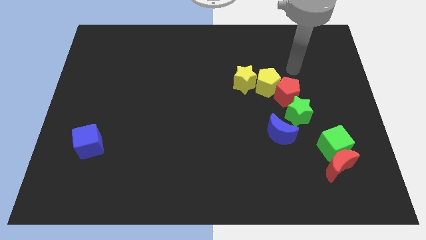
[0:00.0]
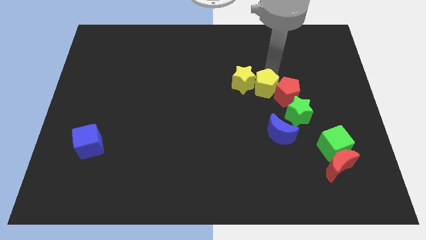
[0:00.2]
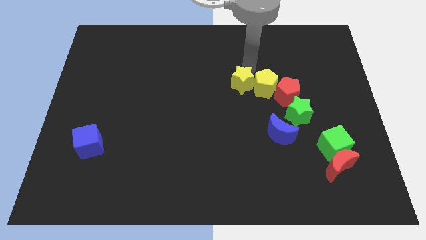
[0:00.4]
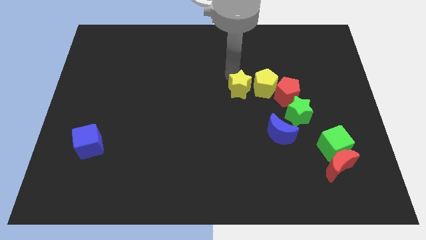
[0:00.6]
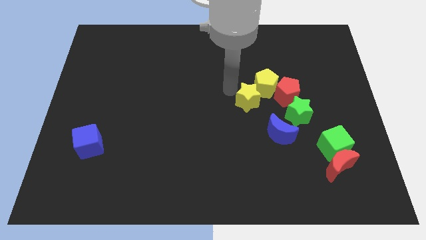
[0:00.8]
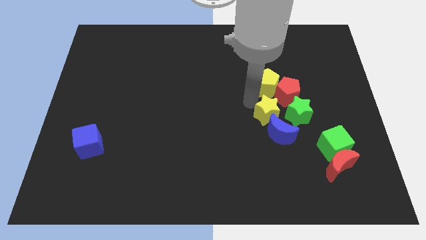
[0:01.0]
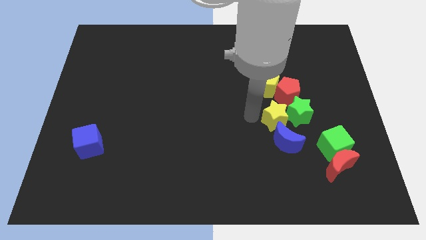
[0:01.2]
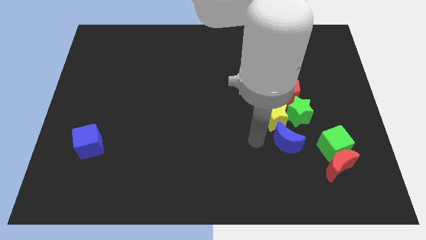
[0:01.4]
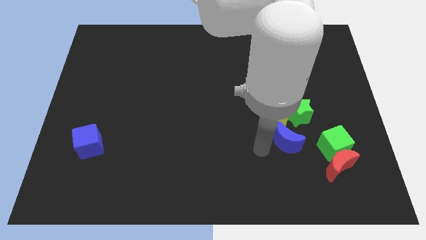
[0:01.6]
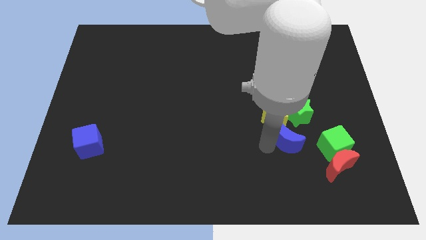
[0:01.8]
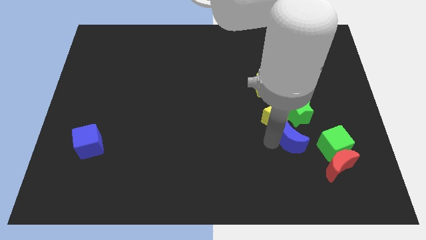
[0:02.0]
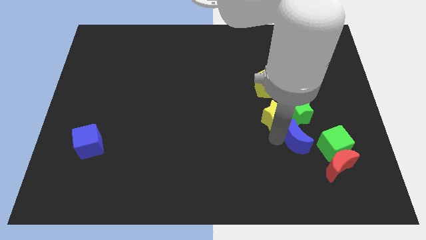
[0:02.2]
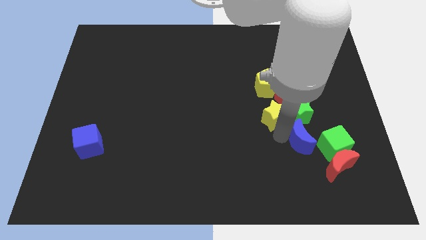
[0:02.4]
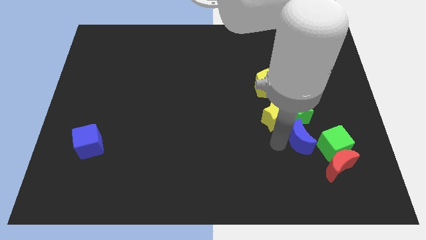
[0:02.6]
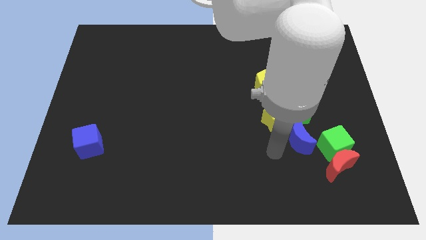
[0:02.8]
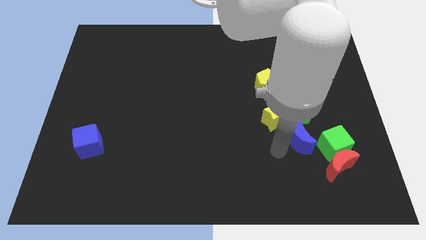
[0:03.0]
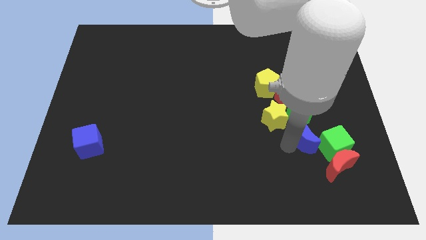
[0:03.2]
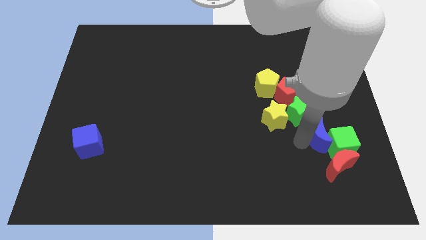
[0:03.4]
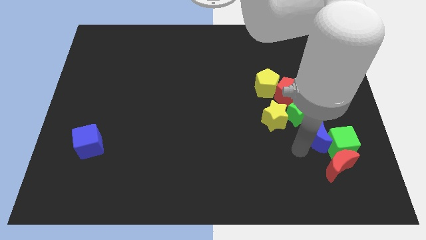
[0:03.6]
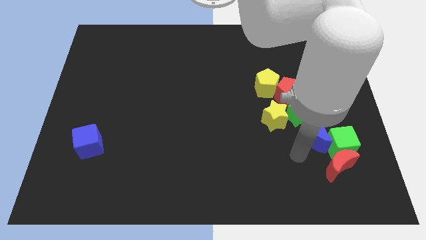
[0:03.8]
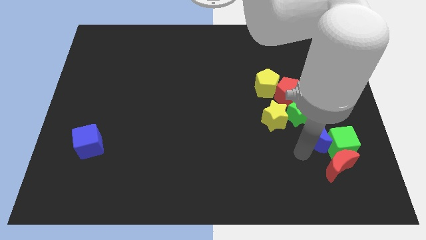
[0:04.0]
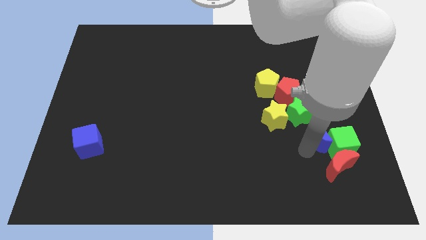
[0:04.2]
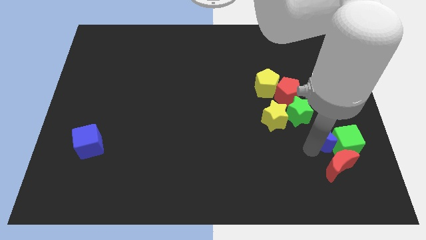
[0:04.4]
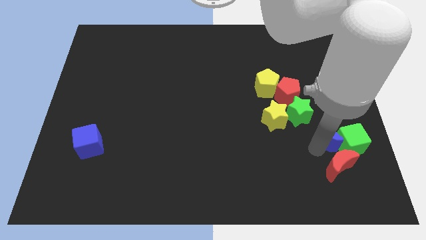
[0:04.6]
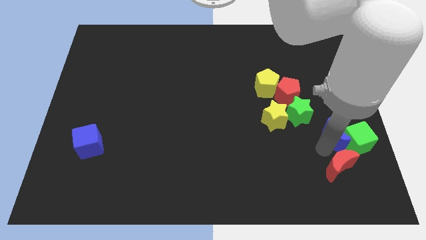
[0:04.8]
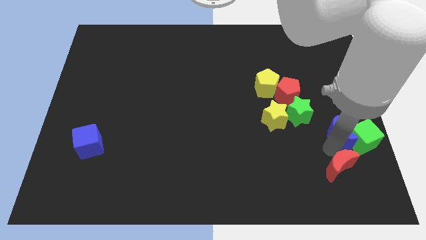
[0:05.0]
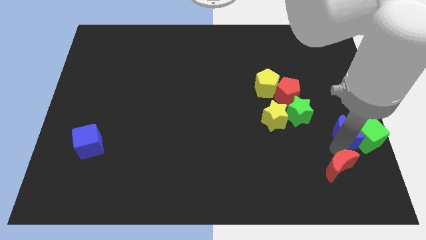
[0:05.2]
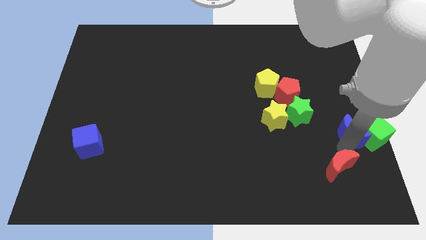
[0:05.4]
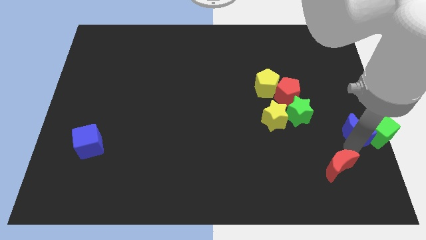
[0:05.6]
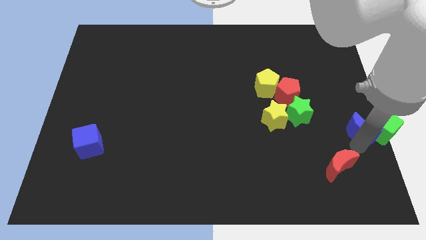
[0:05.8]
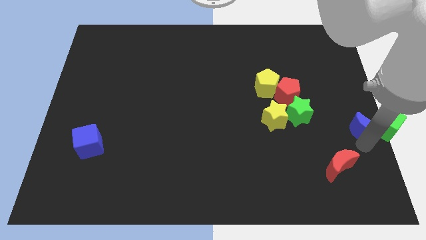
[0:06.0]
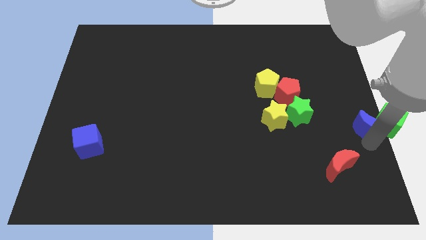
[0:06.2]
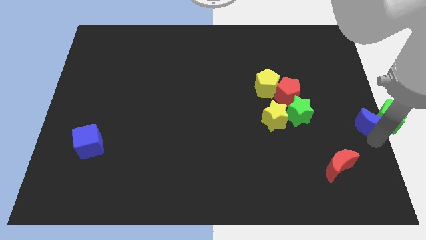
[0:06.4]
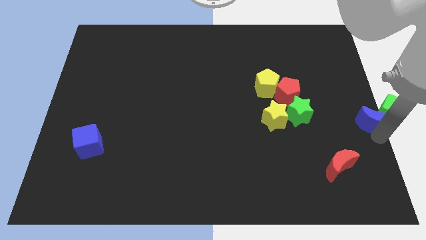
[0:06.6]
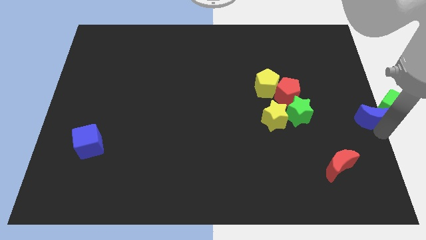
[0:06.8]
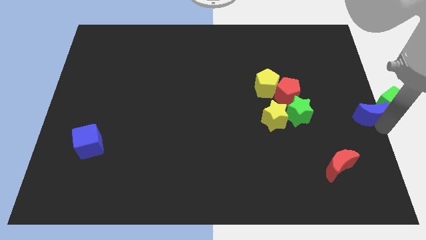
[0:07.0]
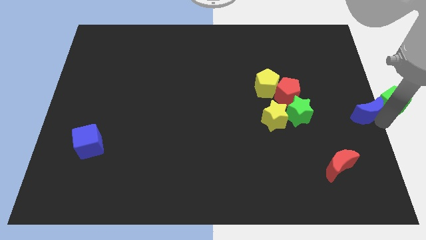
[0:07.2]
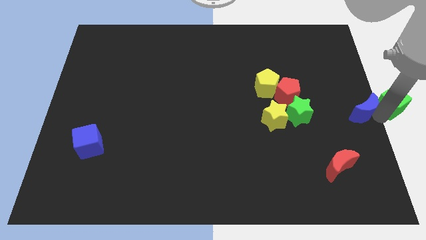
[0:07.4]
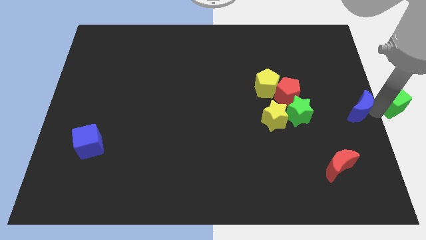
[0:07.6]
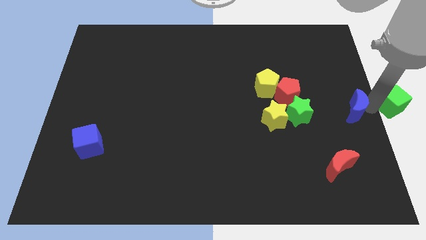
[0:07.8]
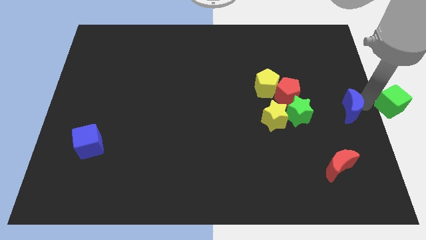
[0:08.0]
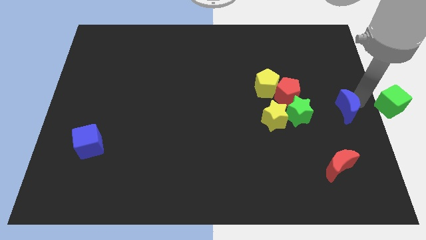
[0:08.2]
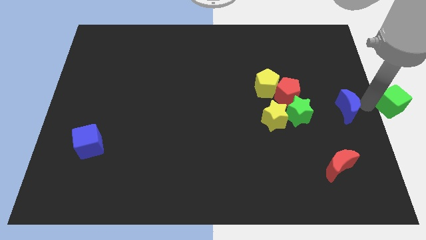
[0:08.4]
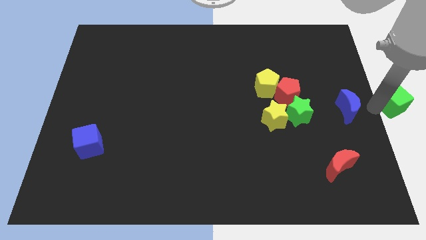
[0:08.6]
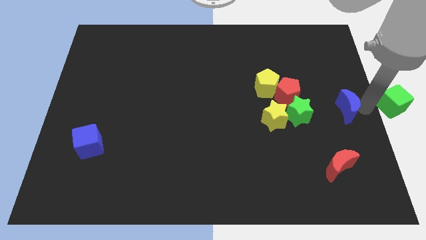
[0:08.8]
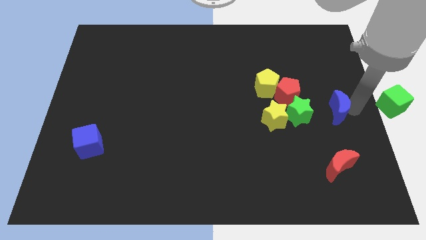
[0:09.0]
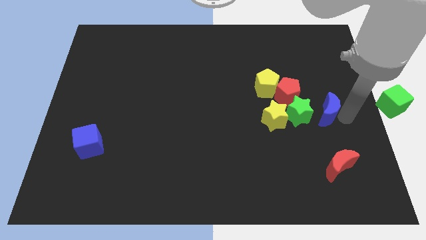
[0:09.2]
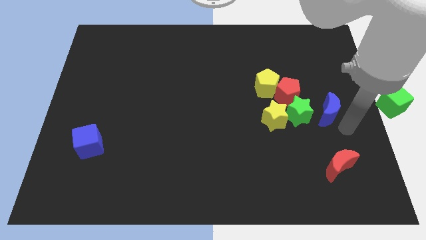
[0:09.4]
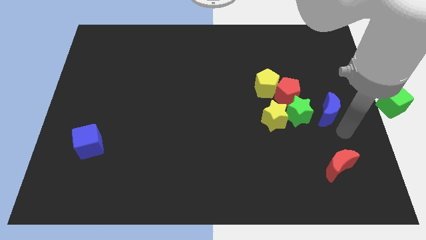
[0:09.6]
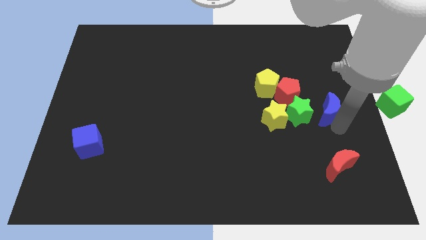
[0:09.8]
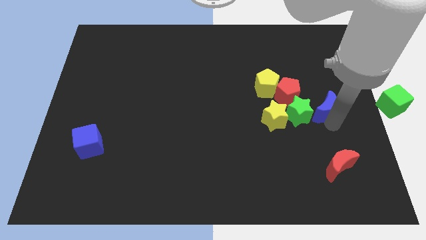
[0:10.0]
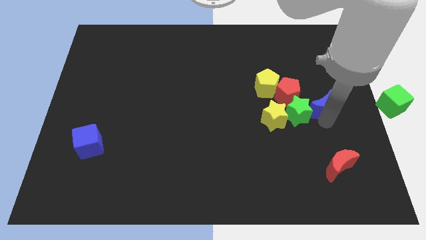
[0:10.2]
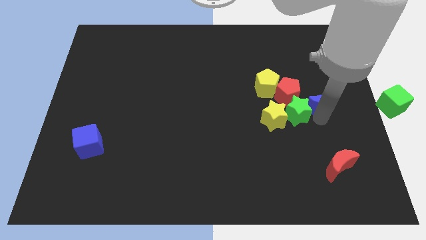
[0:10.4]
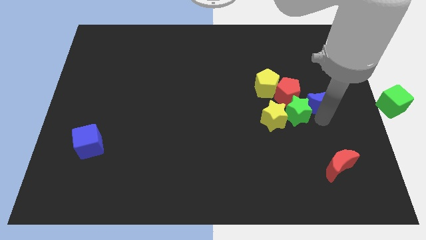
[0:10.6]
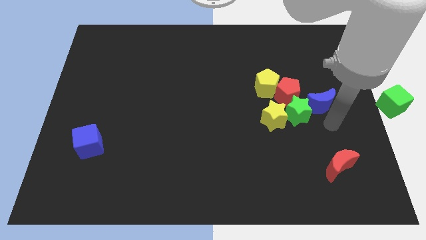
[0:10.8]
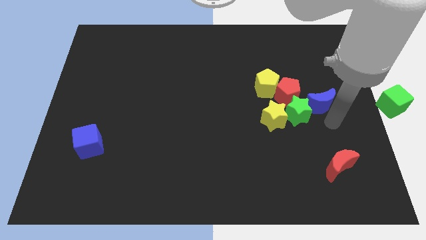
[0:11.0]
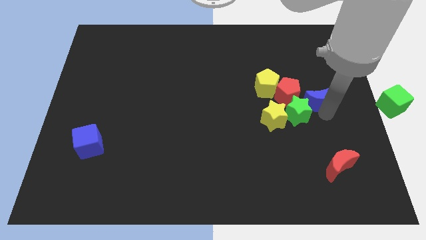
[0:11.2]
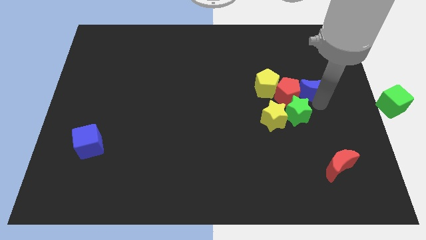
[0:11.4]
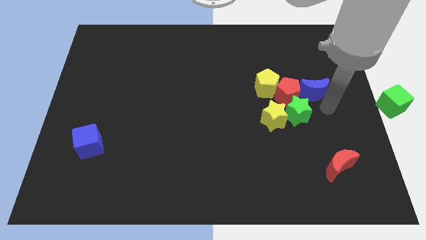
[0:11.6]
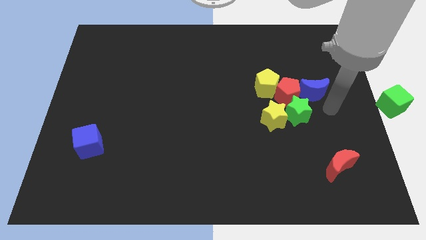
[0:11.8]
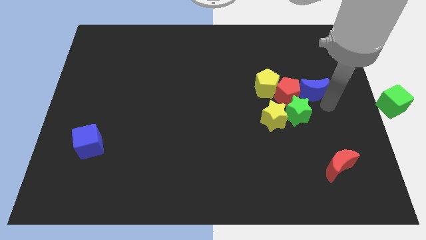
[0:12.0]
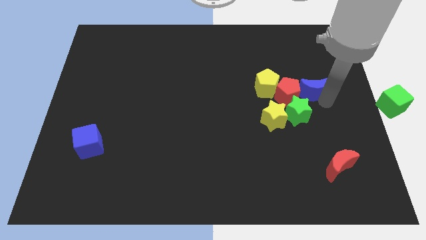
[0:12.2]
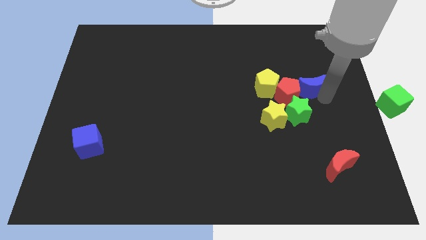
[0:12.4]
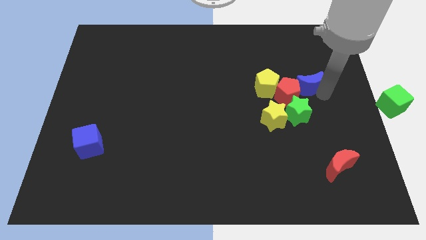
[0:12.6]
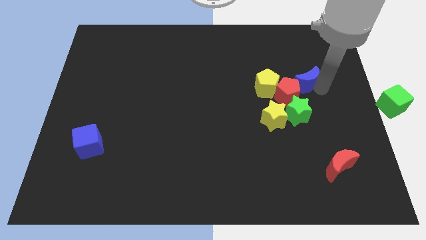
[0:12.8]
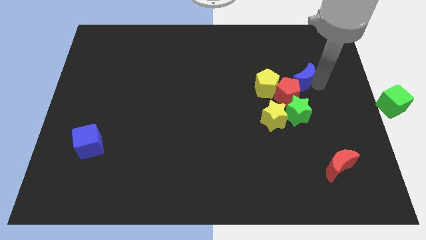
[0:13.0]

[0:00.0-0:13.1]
push the blue moon to the top of the red pentagon

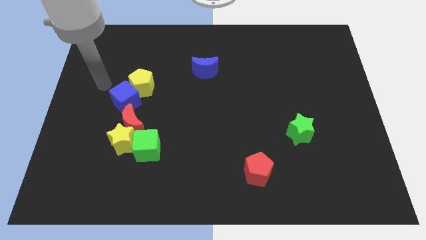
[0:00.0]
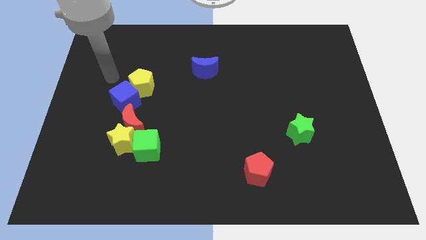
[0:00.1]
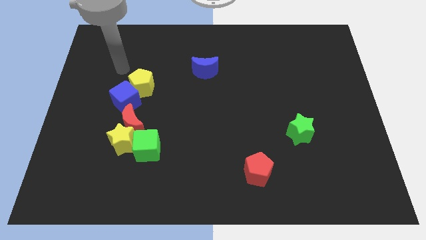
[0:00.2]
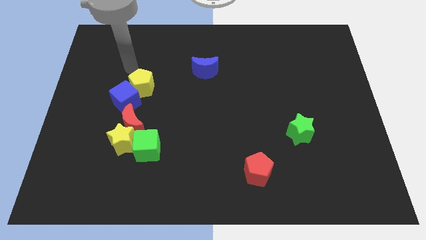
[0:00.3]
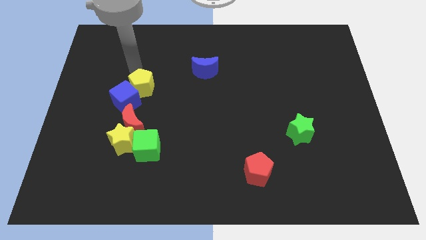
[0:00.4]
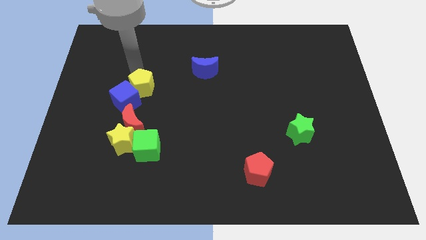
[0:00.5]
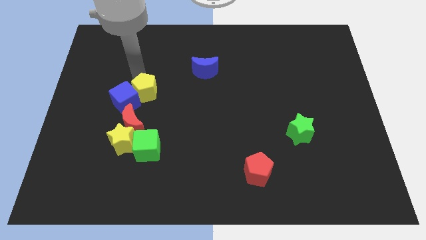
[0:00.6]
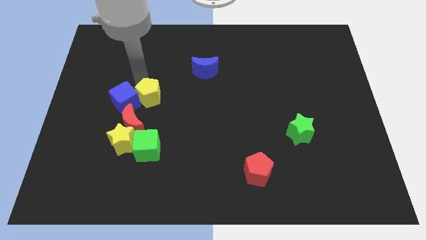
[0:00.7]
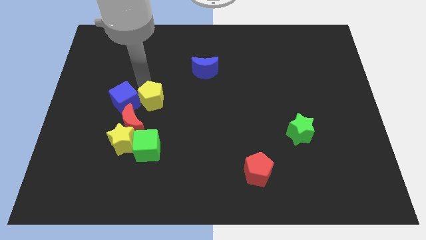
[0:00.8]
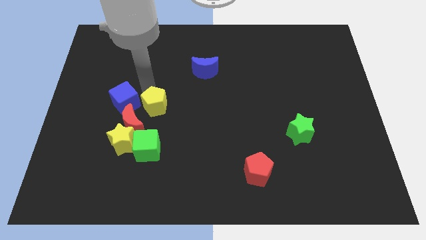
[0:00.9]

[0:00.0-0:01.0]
move the yellow pentagon diagonally up and to the right of the yellow star
